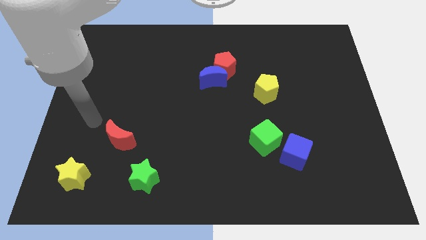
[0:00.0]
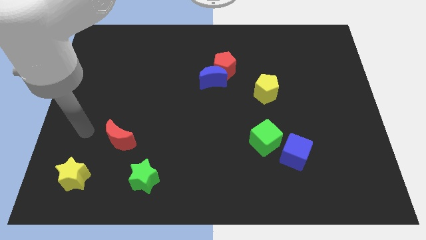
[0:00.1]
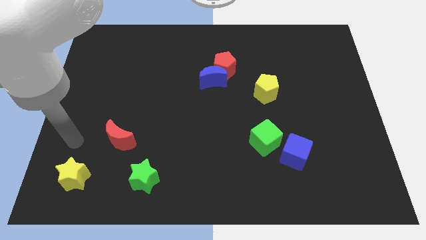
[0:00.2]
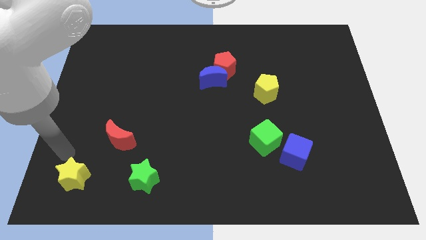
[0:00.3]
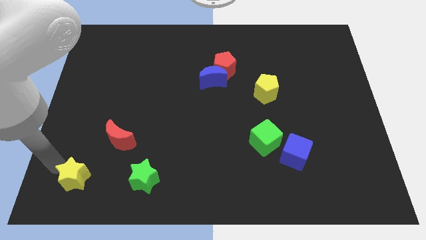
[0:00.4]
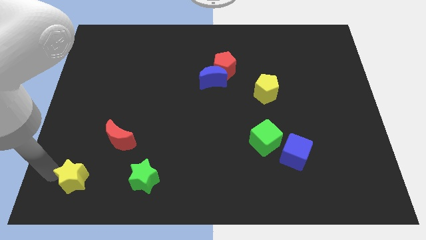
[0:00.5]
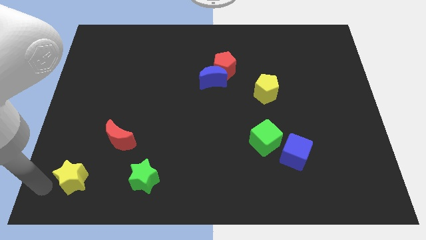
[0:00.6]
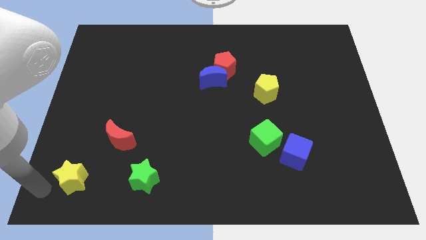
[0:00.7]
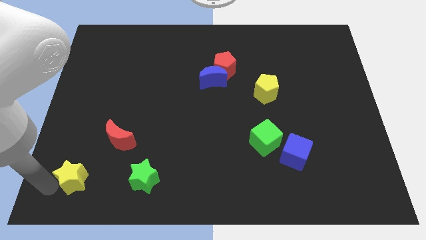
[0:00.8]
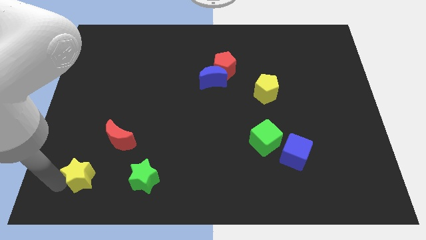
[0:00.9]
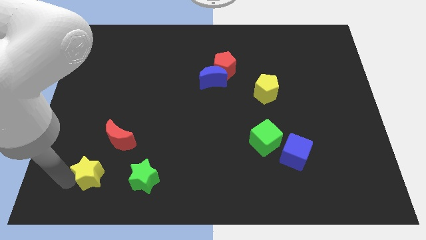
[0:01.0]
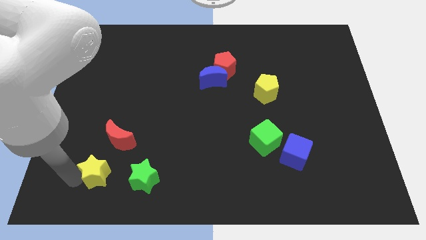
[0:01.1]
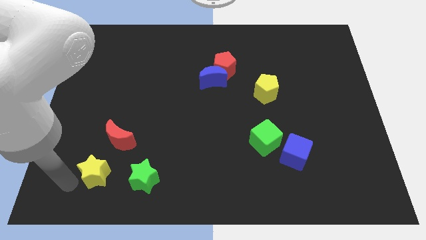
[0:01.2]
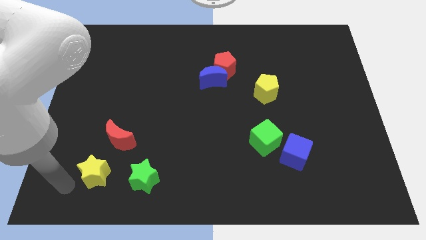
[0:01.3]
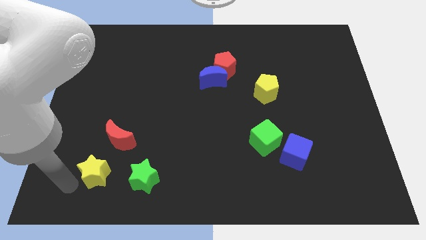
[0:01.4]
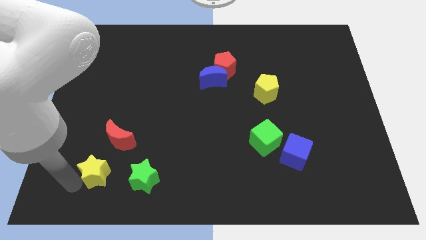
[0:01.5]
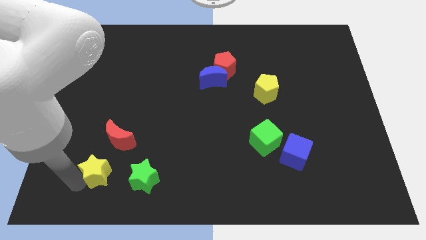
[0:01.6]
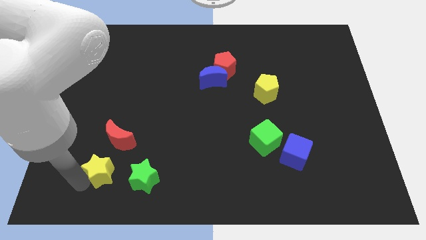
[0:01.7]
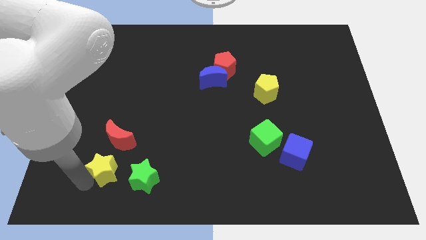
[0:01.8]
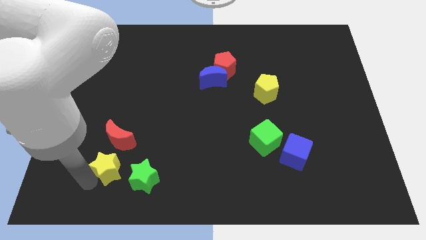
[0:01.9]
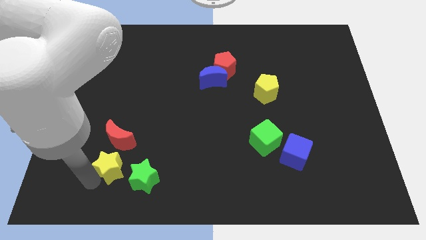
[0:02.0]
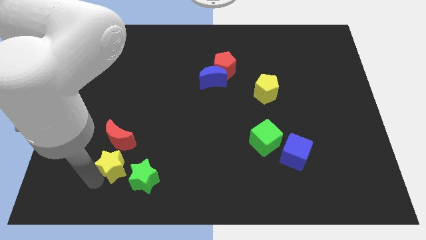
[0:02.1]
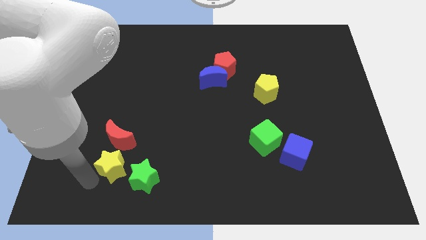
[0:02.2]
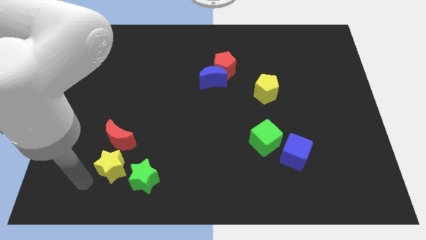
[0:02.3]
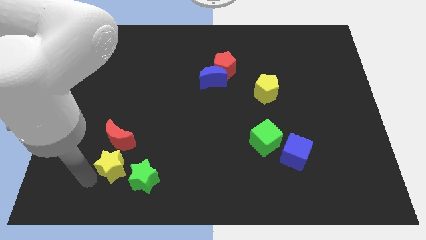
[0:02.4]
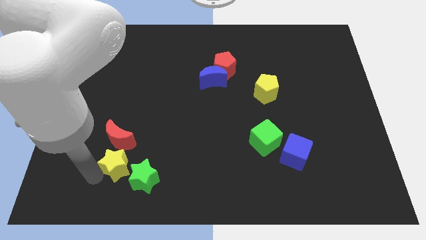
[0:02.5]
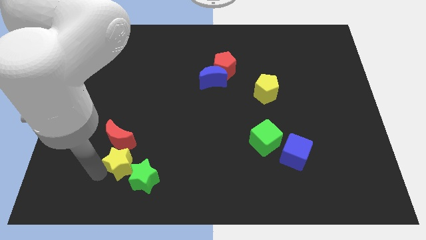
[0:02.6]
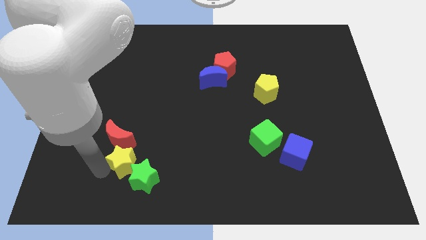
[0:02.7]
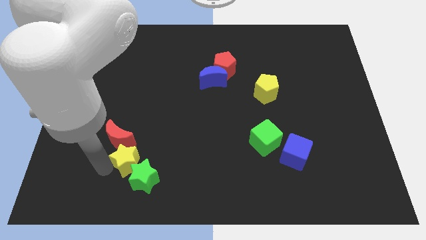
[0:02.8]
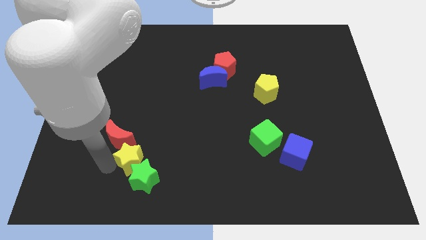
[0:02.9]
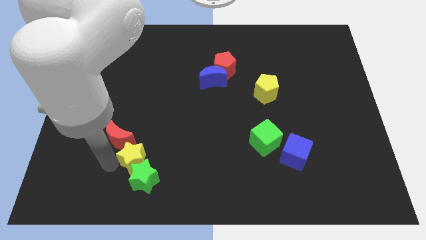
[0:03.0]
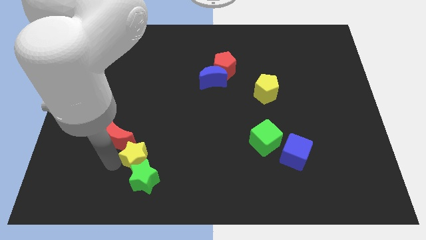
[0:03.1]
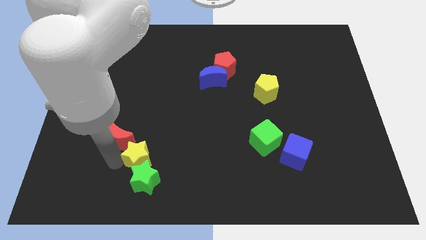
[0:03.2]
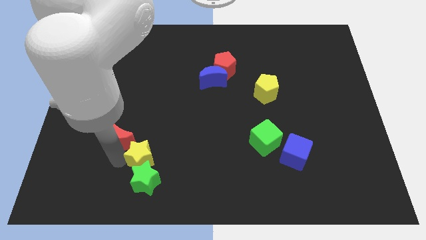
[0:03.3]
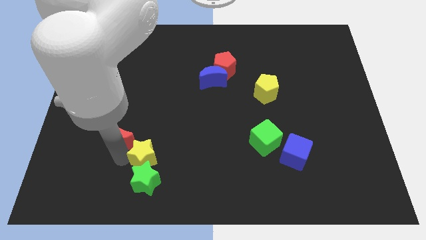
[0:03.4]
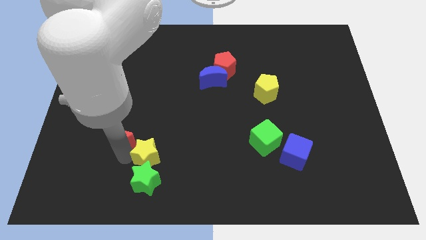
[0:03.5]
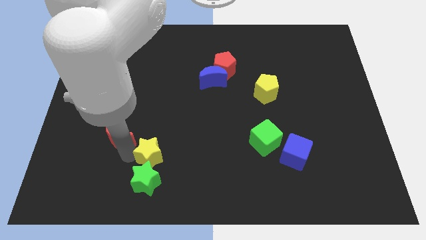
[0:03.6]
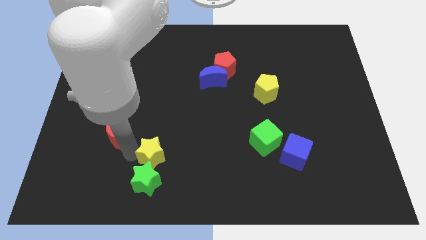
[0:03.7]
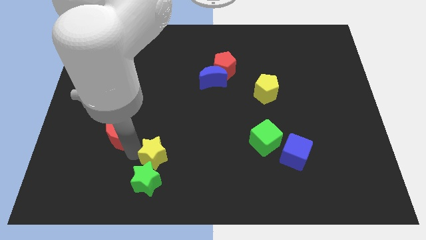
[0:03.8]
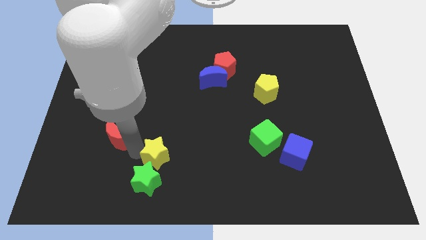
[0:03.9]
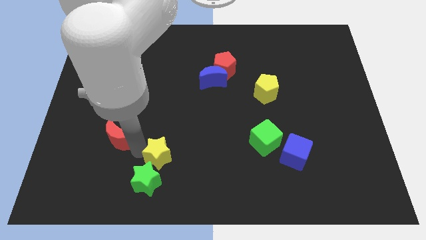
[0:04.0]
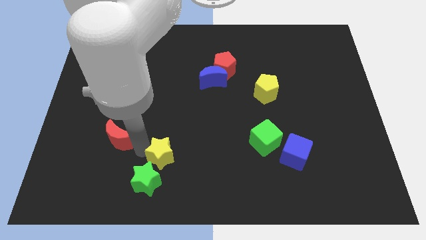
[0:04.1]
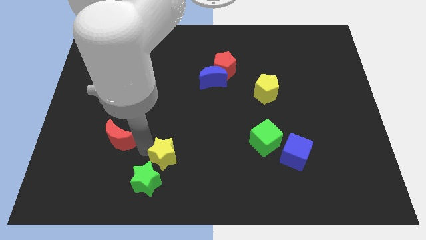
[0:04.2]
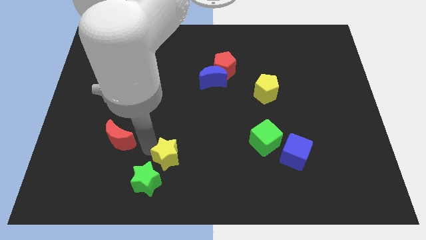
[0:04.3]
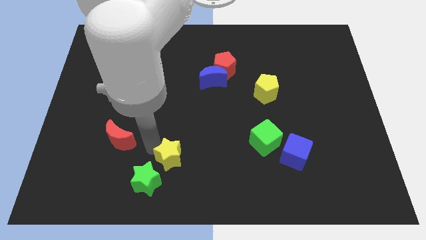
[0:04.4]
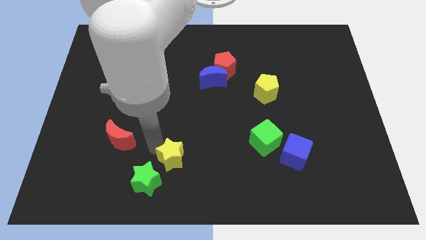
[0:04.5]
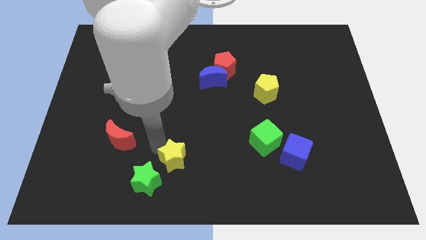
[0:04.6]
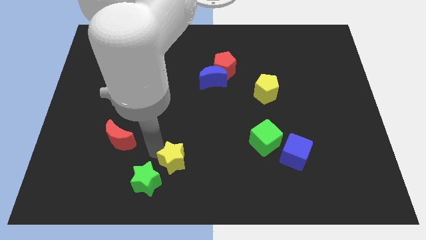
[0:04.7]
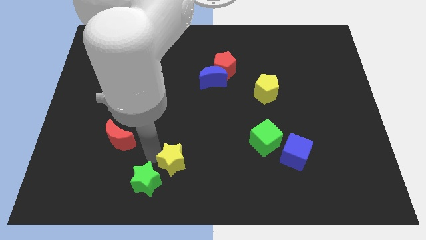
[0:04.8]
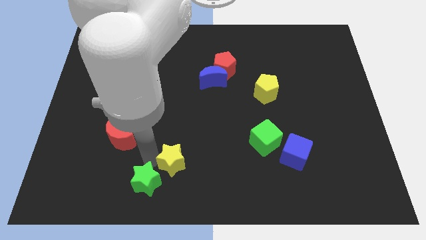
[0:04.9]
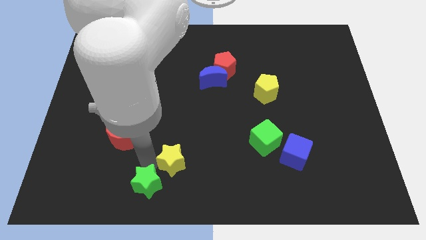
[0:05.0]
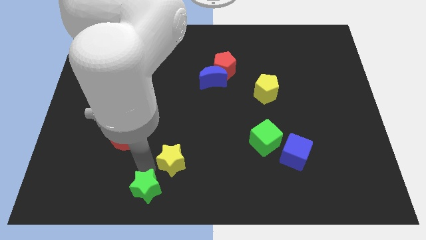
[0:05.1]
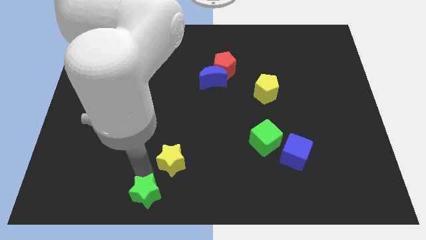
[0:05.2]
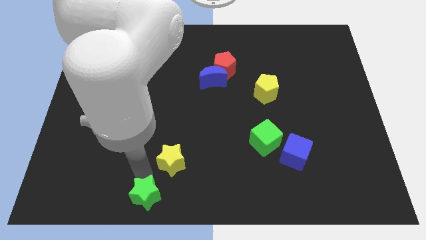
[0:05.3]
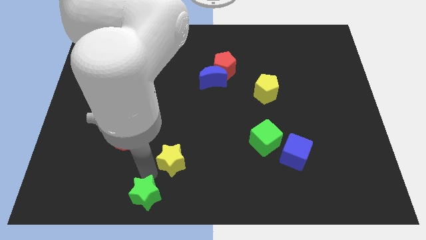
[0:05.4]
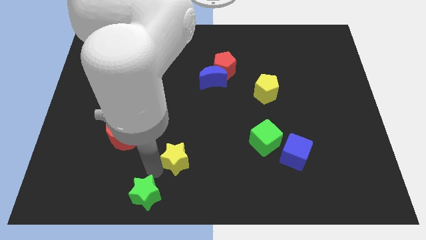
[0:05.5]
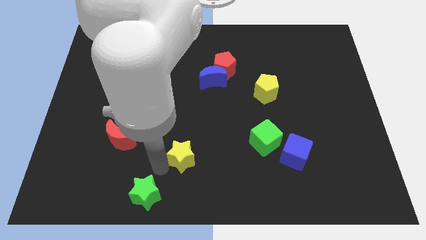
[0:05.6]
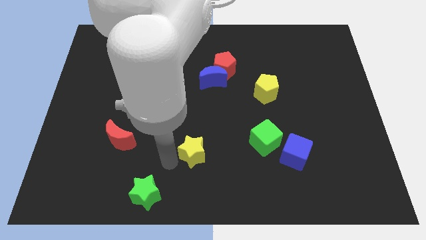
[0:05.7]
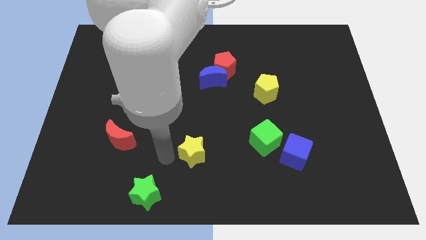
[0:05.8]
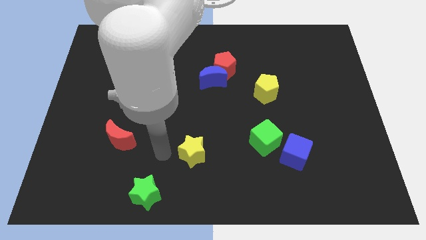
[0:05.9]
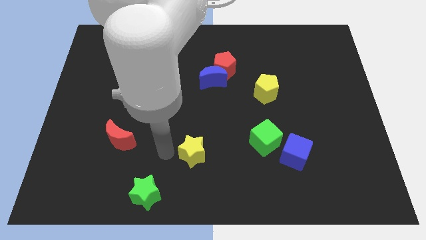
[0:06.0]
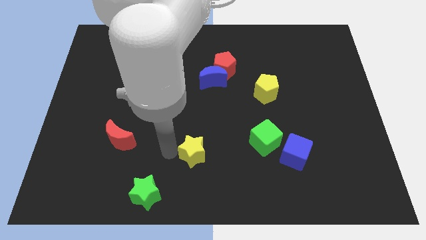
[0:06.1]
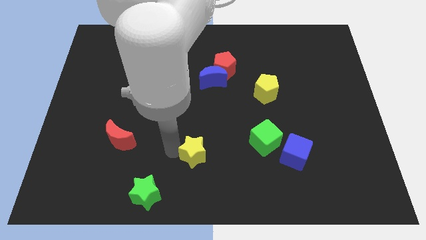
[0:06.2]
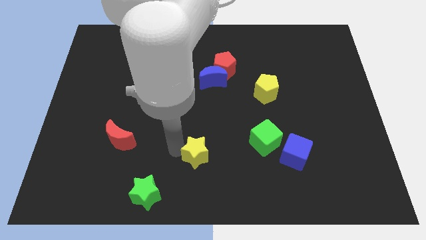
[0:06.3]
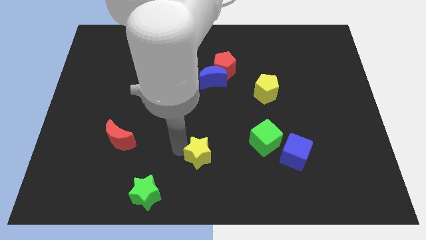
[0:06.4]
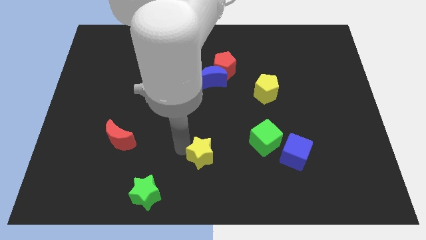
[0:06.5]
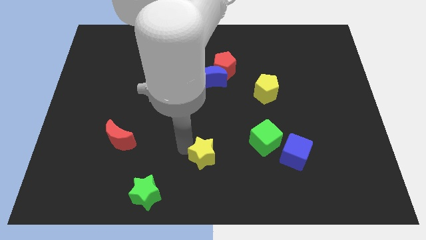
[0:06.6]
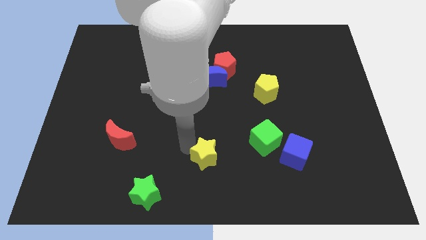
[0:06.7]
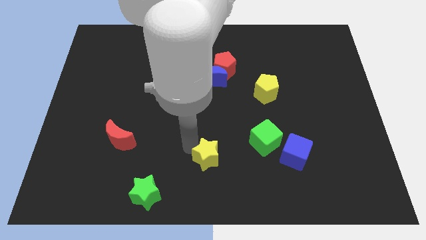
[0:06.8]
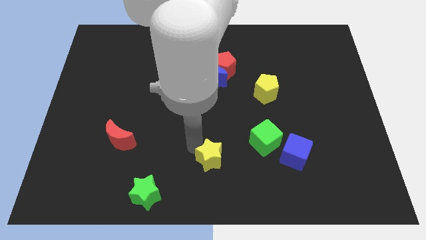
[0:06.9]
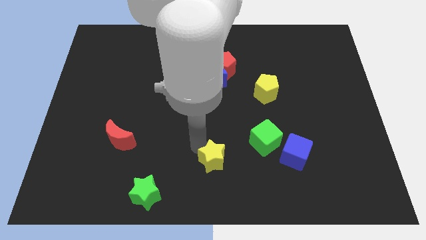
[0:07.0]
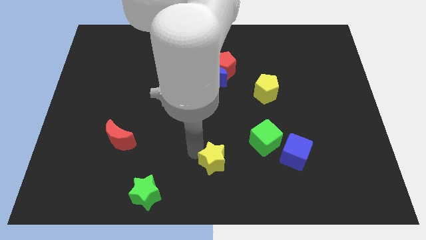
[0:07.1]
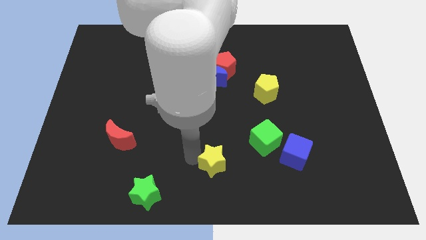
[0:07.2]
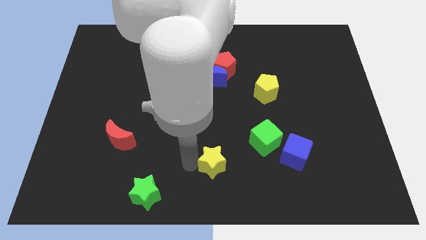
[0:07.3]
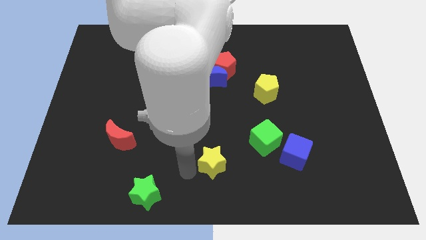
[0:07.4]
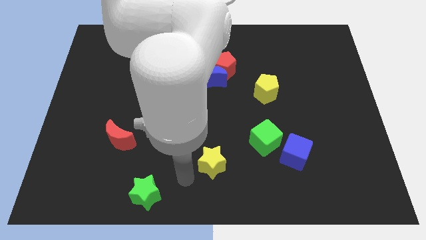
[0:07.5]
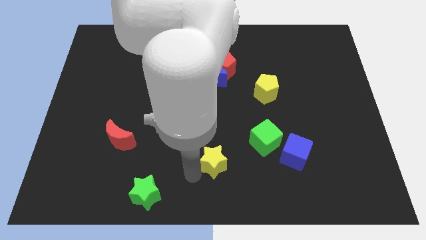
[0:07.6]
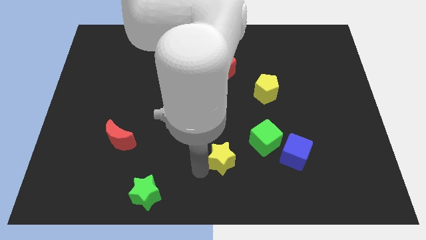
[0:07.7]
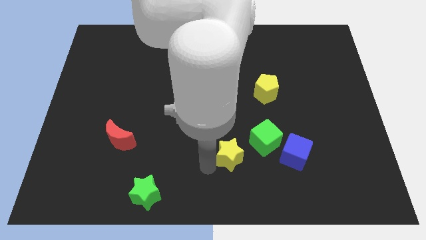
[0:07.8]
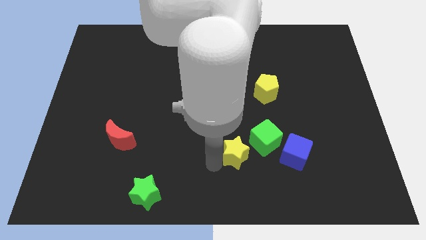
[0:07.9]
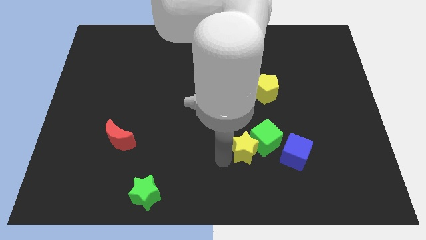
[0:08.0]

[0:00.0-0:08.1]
move the yellow star to the green cube
